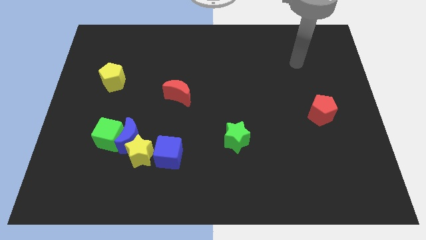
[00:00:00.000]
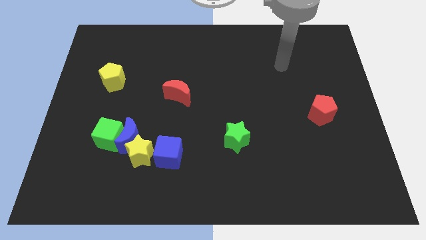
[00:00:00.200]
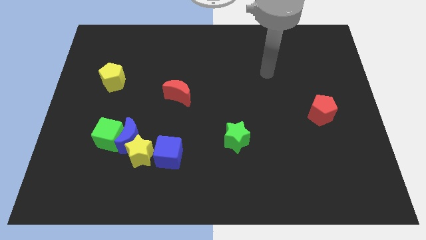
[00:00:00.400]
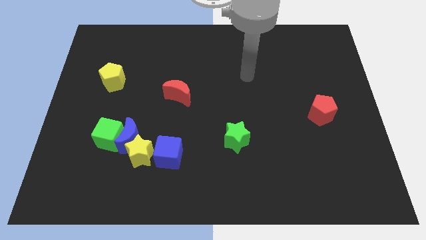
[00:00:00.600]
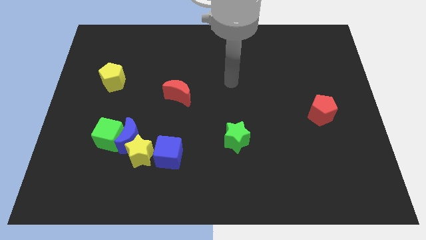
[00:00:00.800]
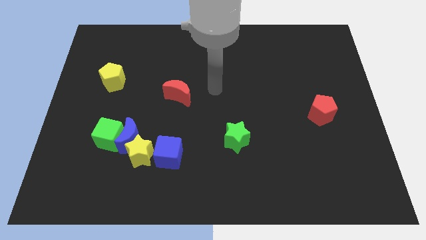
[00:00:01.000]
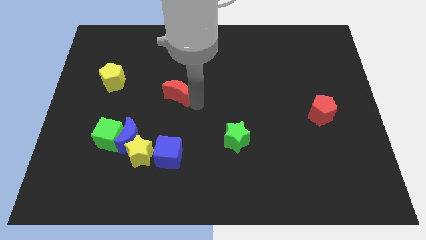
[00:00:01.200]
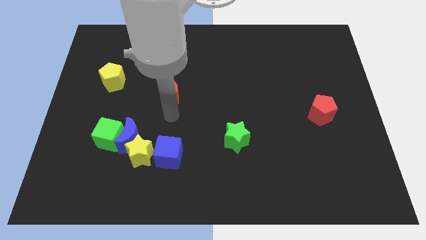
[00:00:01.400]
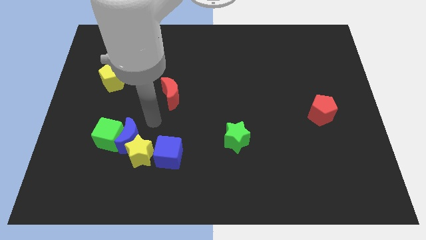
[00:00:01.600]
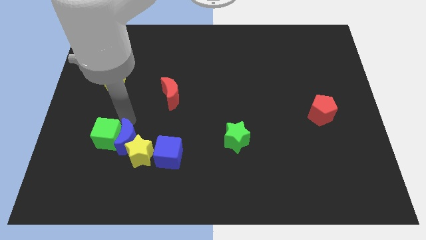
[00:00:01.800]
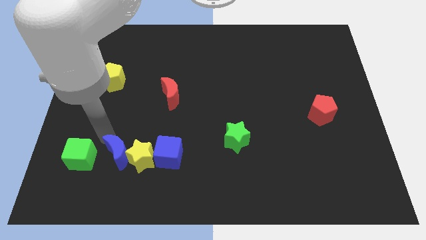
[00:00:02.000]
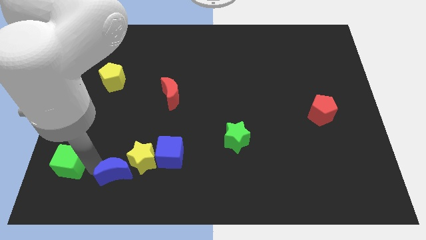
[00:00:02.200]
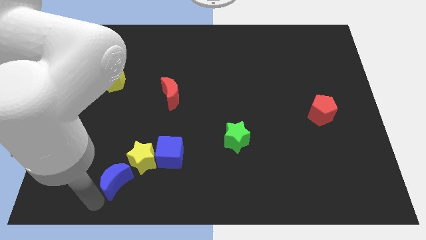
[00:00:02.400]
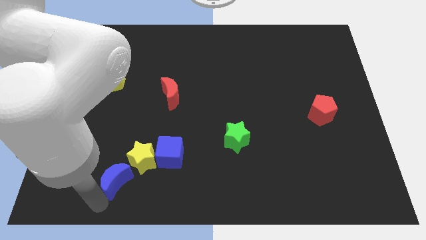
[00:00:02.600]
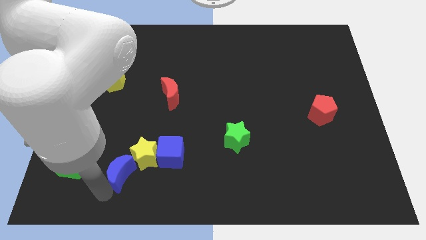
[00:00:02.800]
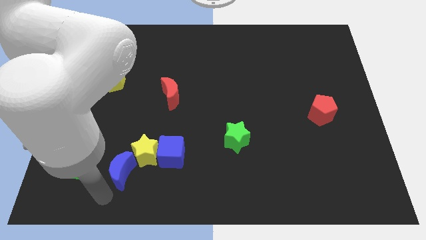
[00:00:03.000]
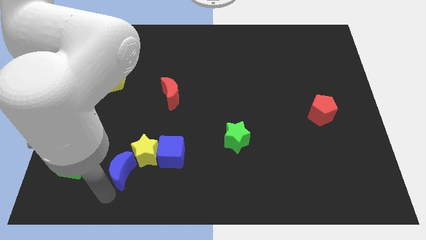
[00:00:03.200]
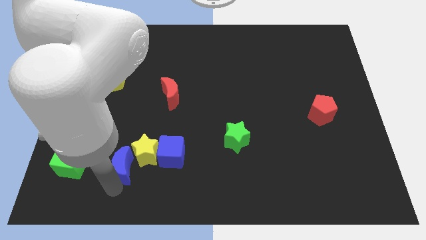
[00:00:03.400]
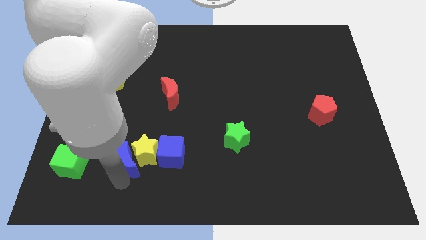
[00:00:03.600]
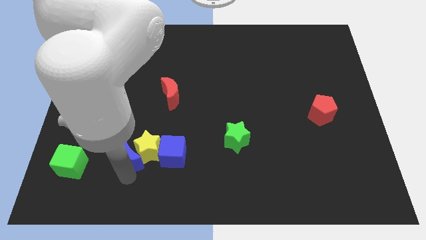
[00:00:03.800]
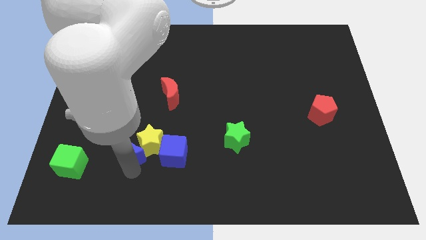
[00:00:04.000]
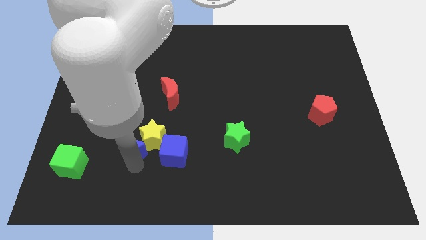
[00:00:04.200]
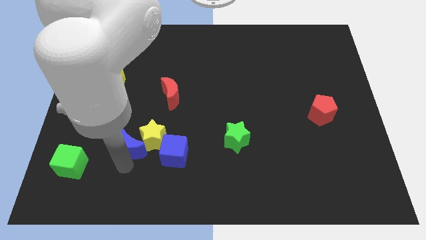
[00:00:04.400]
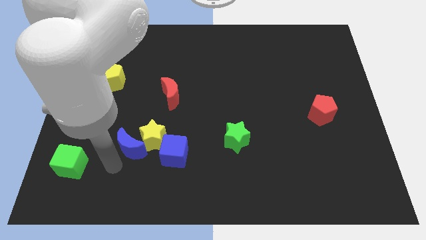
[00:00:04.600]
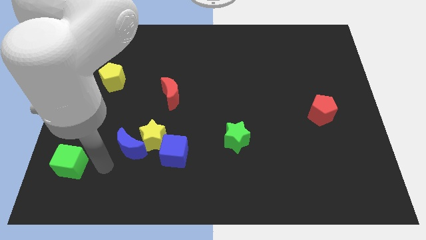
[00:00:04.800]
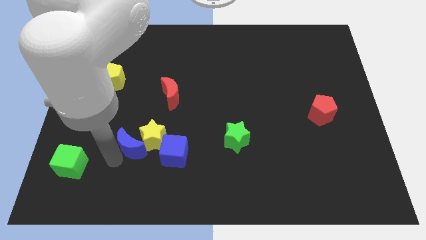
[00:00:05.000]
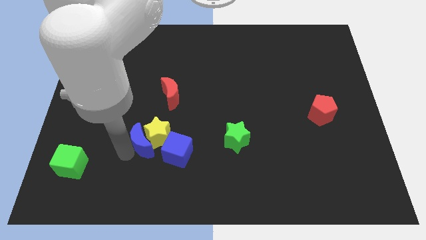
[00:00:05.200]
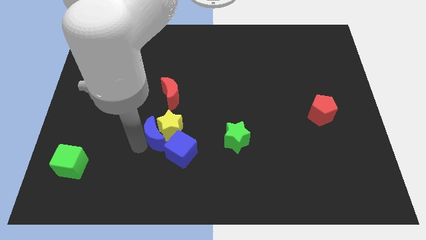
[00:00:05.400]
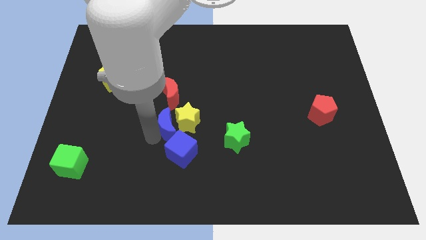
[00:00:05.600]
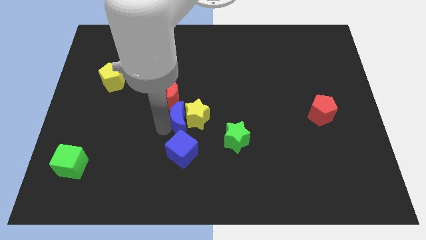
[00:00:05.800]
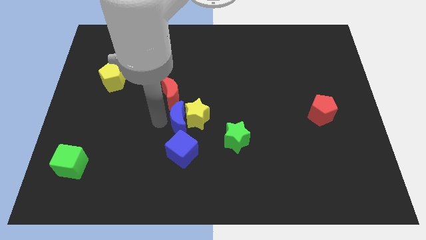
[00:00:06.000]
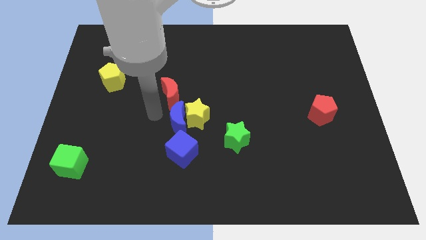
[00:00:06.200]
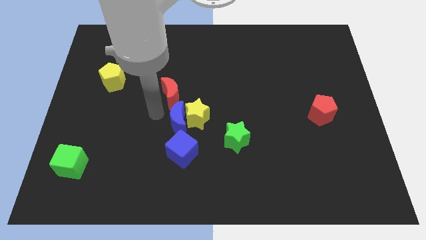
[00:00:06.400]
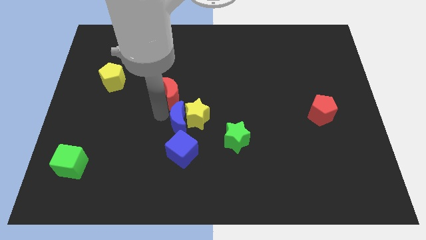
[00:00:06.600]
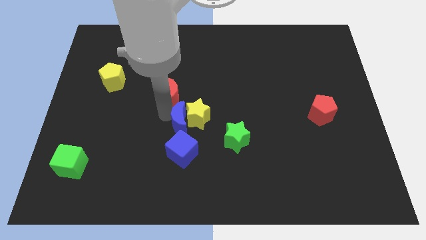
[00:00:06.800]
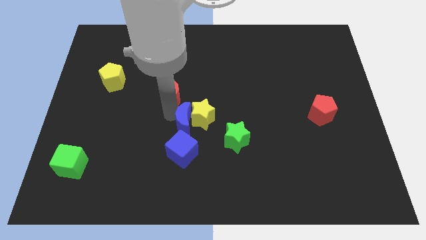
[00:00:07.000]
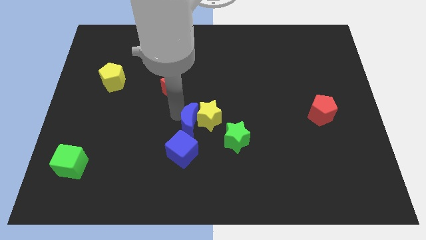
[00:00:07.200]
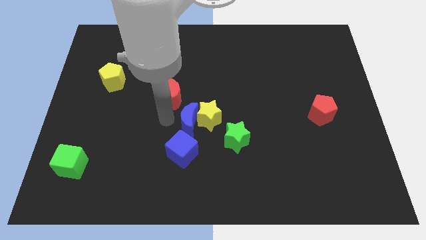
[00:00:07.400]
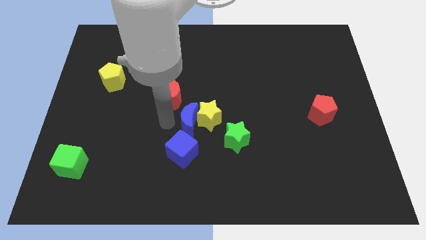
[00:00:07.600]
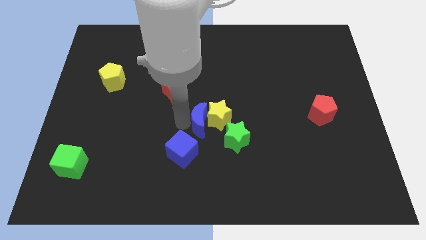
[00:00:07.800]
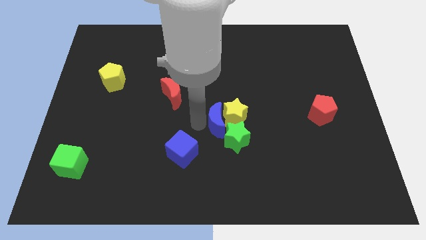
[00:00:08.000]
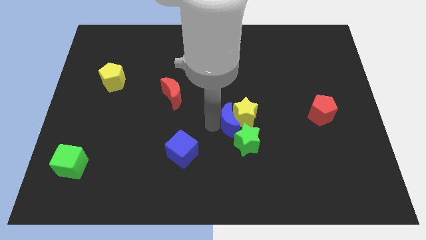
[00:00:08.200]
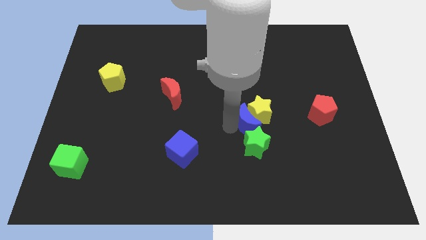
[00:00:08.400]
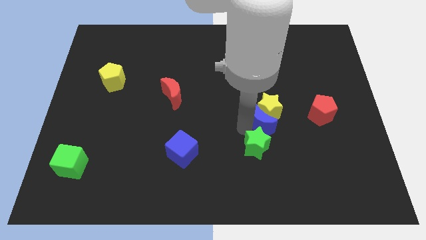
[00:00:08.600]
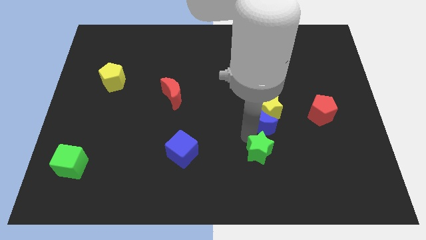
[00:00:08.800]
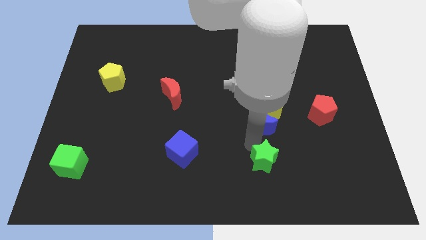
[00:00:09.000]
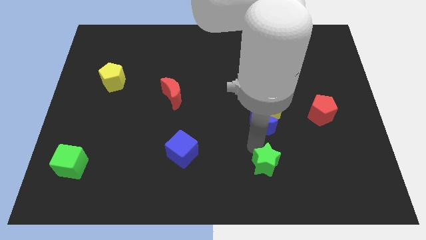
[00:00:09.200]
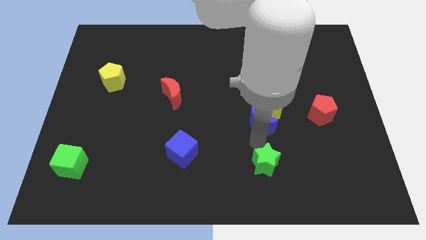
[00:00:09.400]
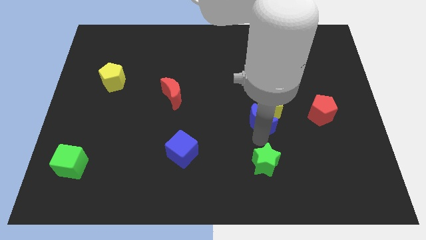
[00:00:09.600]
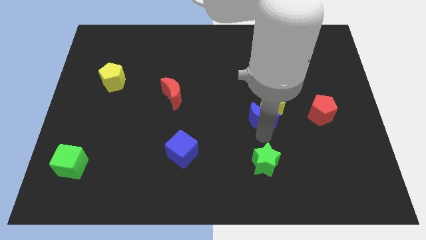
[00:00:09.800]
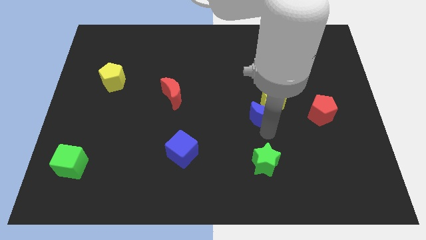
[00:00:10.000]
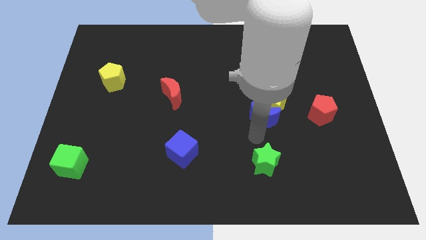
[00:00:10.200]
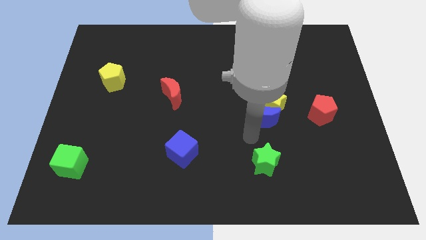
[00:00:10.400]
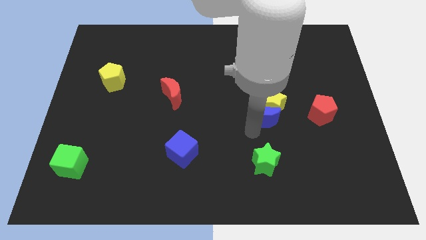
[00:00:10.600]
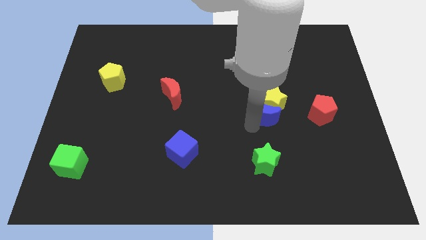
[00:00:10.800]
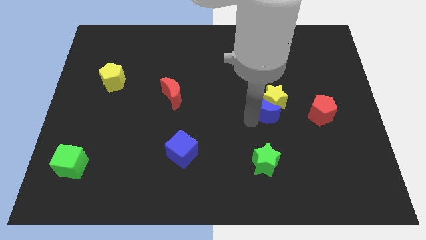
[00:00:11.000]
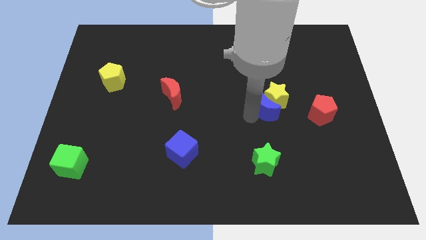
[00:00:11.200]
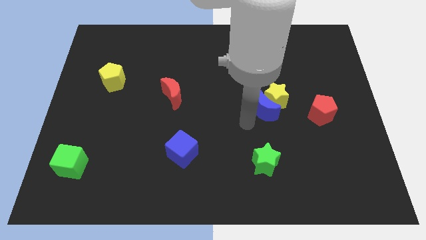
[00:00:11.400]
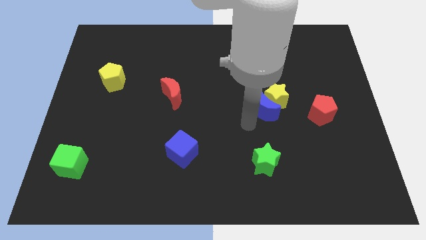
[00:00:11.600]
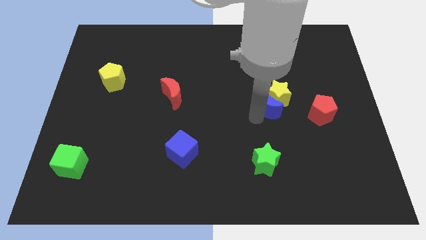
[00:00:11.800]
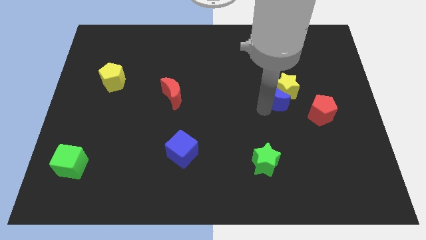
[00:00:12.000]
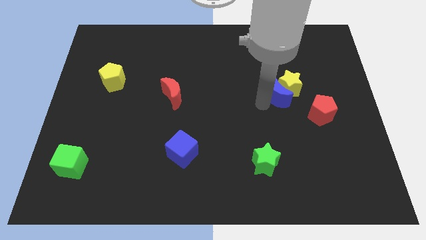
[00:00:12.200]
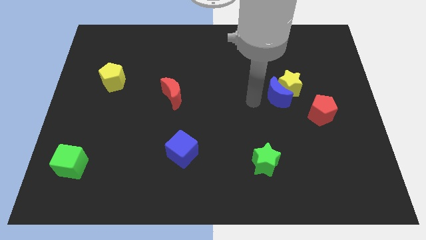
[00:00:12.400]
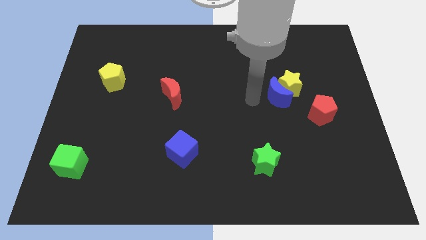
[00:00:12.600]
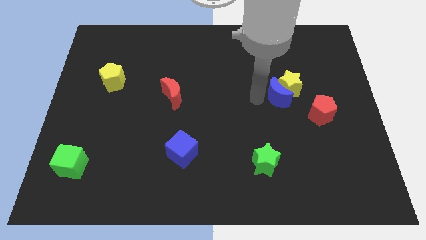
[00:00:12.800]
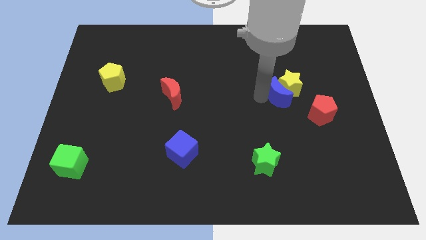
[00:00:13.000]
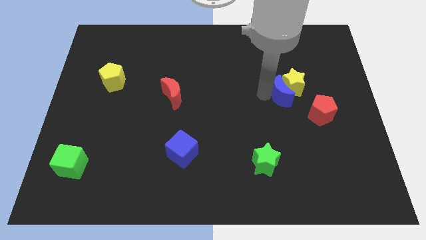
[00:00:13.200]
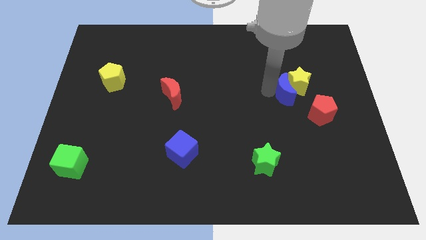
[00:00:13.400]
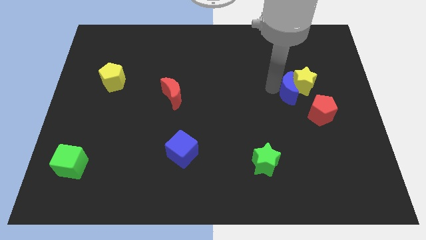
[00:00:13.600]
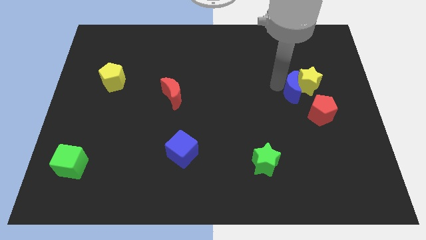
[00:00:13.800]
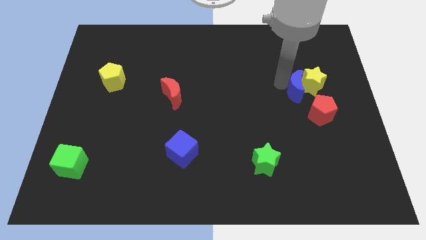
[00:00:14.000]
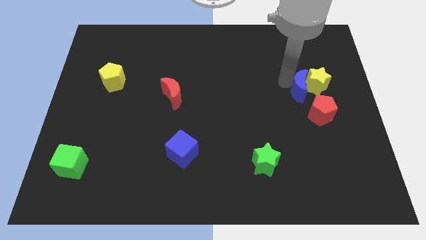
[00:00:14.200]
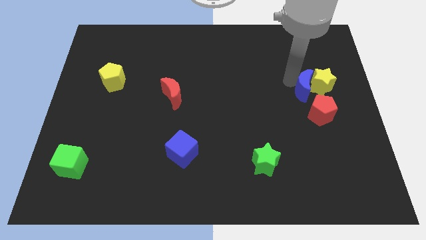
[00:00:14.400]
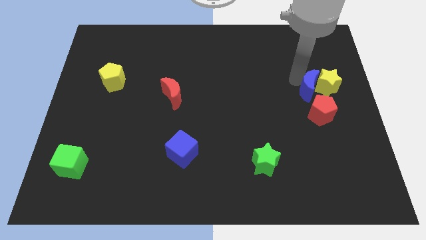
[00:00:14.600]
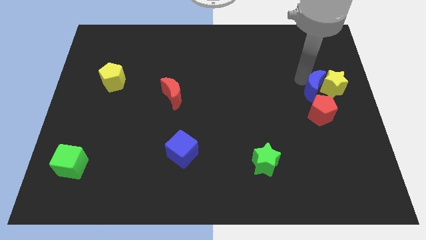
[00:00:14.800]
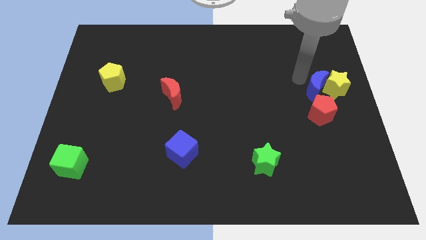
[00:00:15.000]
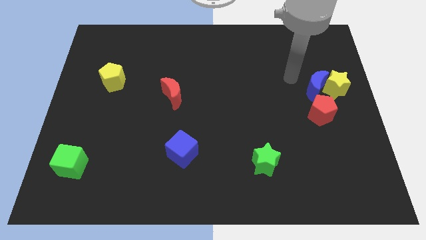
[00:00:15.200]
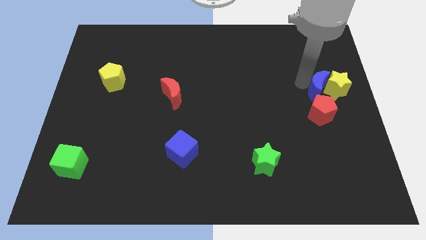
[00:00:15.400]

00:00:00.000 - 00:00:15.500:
push the blue moon to the right side of the board

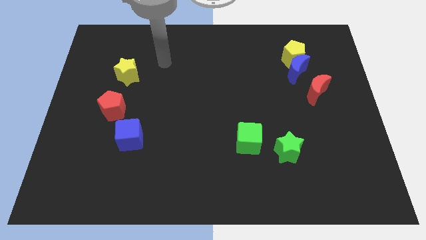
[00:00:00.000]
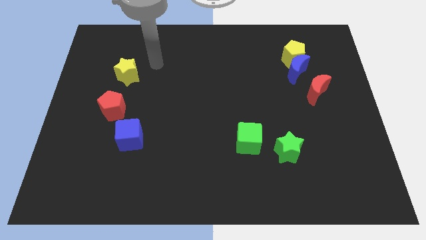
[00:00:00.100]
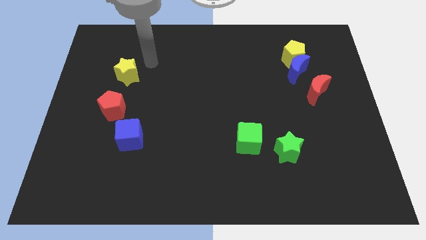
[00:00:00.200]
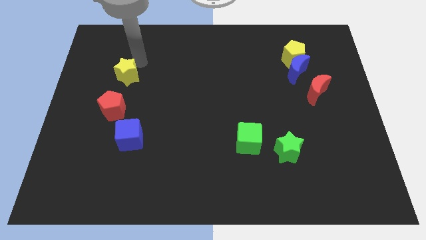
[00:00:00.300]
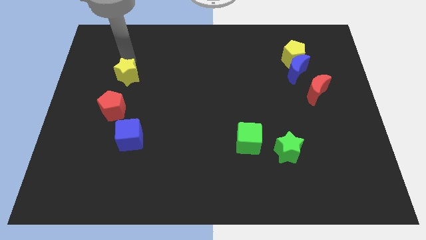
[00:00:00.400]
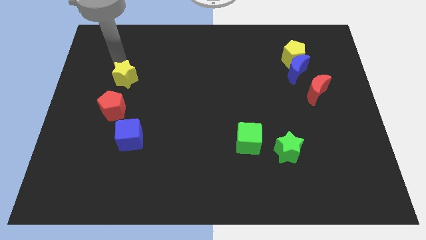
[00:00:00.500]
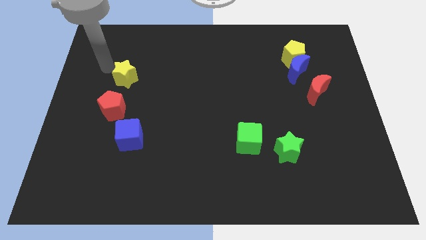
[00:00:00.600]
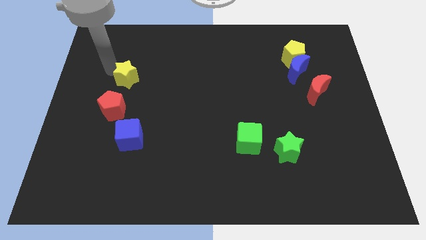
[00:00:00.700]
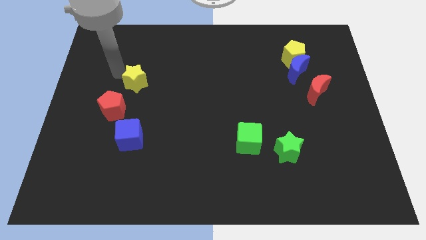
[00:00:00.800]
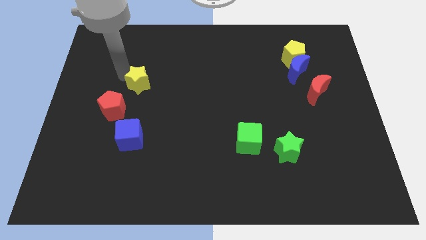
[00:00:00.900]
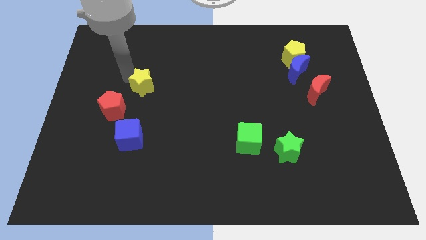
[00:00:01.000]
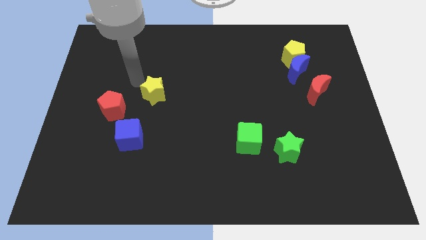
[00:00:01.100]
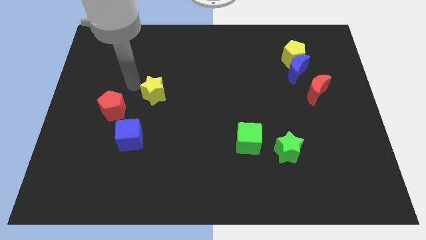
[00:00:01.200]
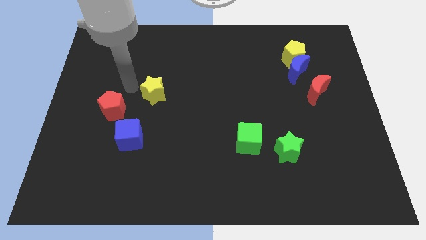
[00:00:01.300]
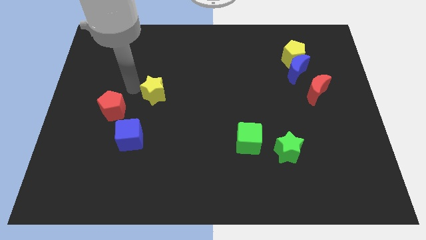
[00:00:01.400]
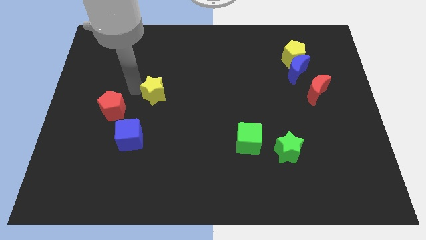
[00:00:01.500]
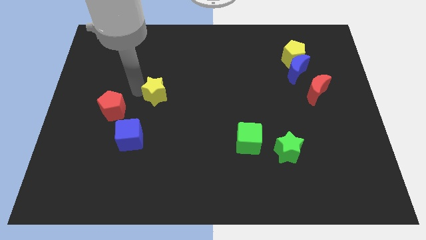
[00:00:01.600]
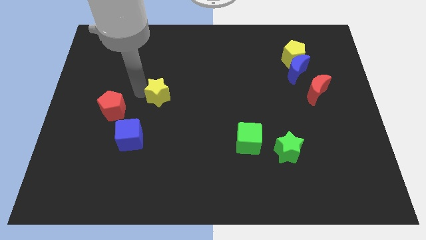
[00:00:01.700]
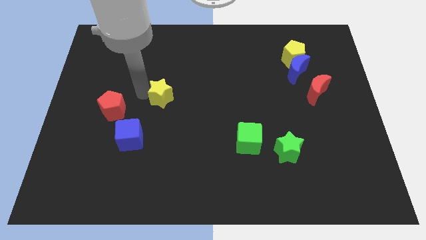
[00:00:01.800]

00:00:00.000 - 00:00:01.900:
push the yellow star to the center
